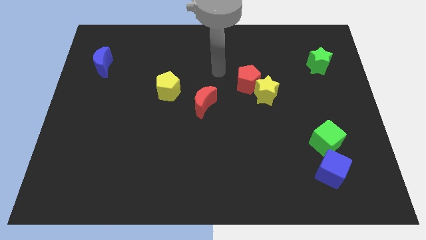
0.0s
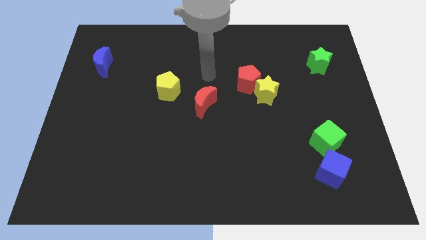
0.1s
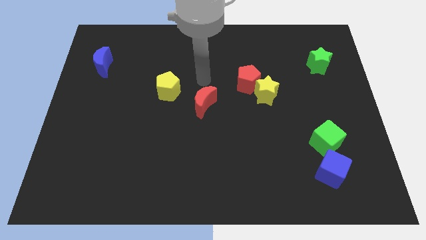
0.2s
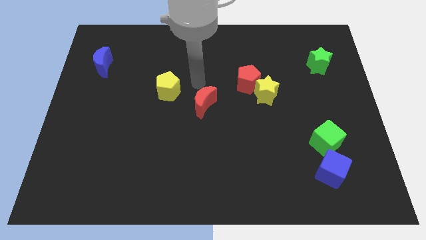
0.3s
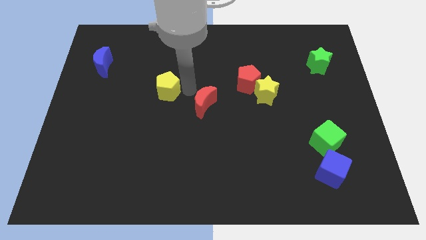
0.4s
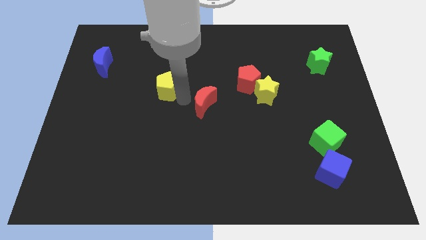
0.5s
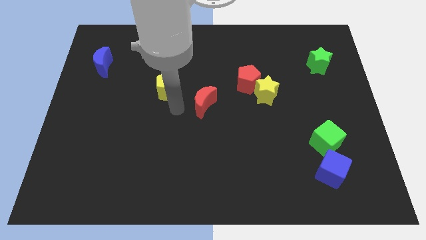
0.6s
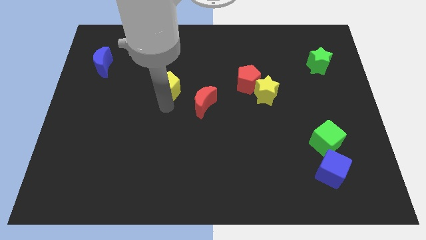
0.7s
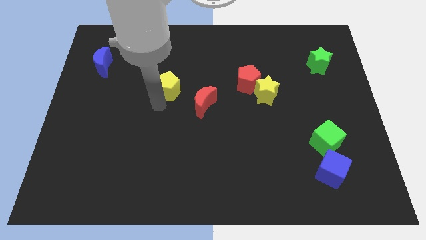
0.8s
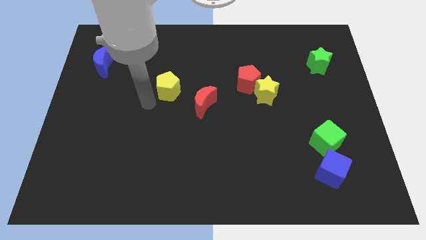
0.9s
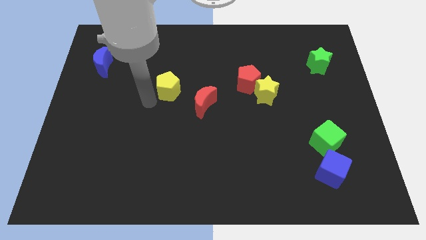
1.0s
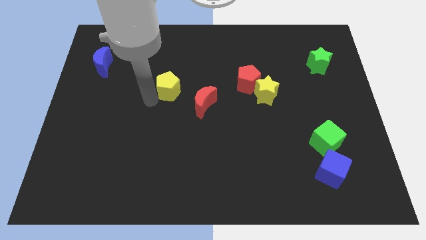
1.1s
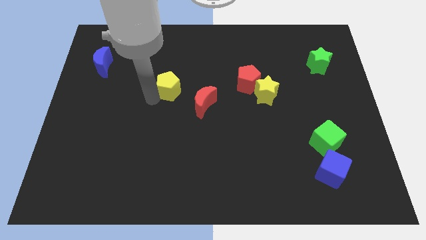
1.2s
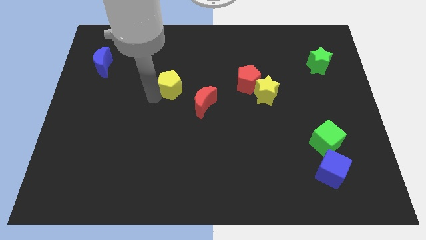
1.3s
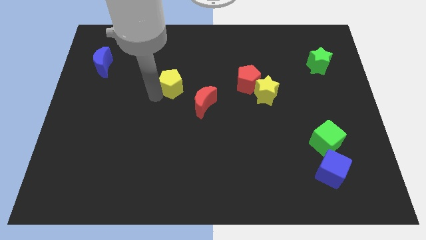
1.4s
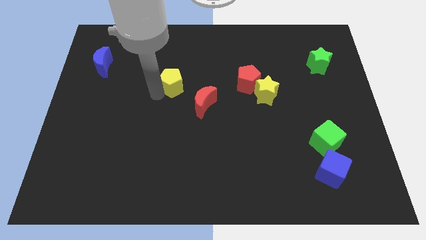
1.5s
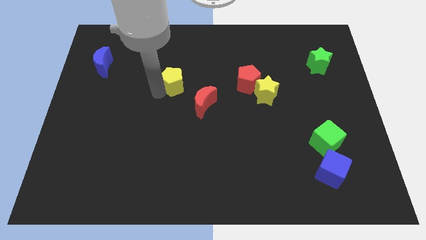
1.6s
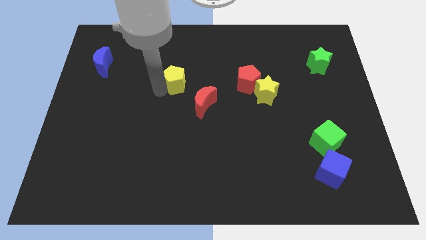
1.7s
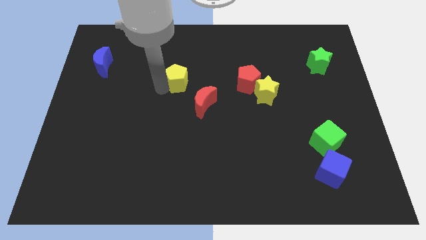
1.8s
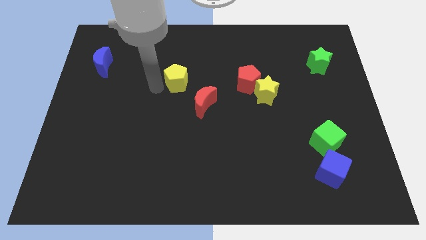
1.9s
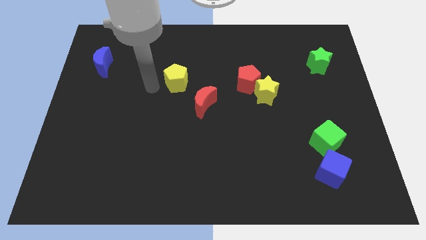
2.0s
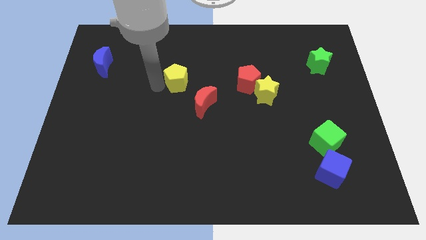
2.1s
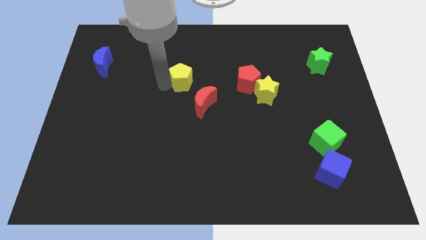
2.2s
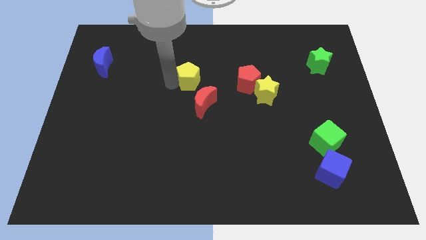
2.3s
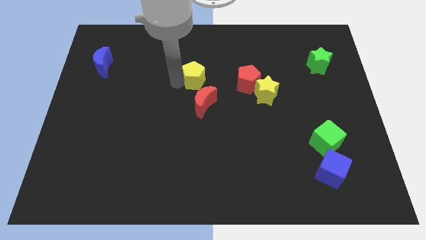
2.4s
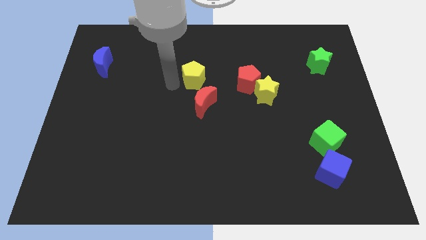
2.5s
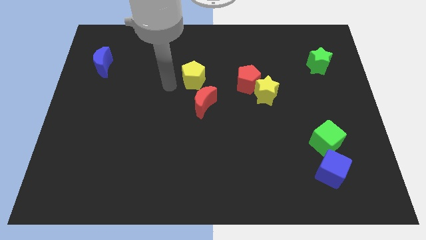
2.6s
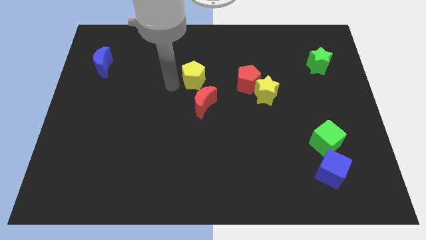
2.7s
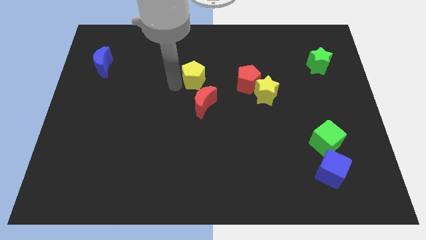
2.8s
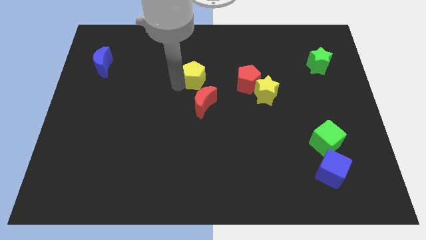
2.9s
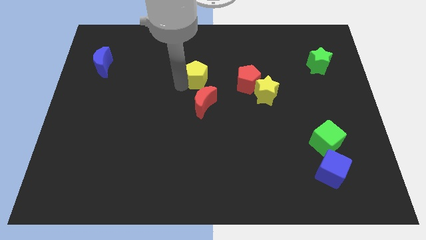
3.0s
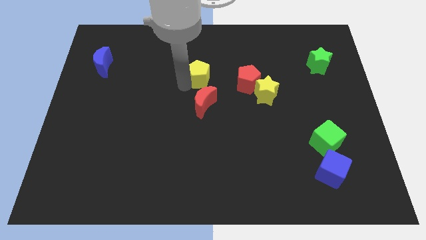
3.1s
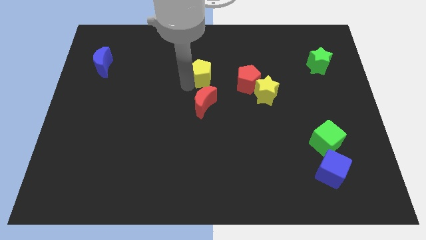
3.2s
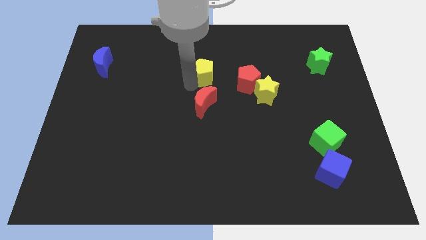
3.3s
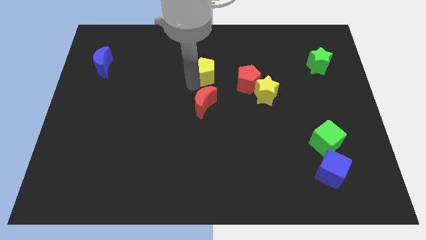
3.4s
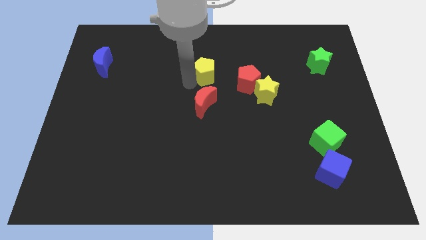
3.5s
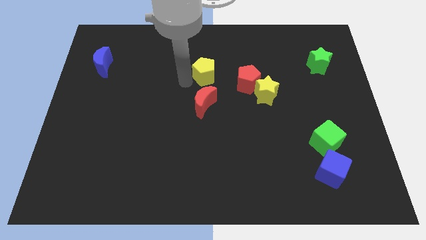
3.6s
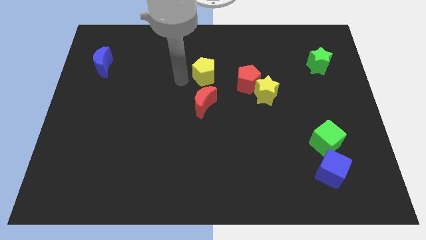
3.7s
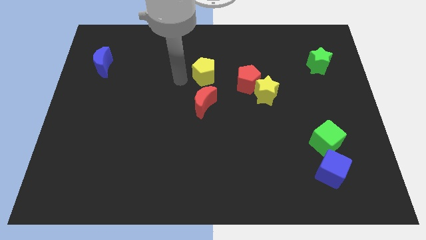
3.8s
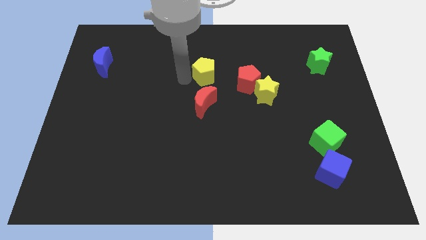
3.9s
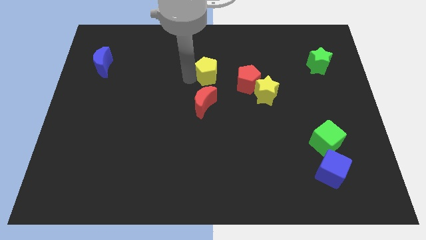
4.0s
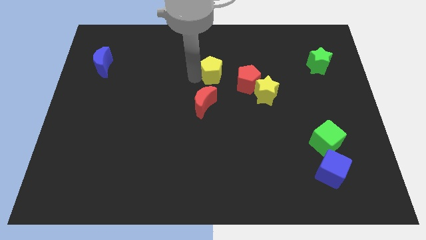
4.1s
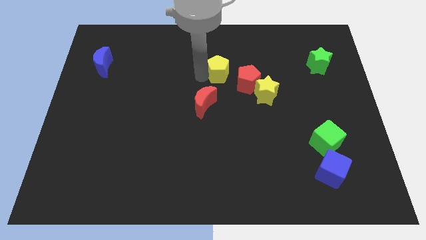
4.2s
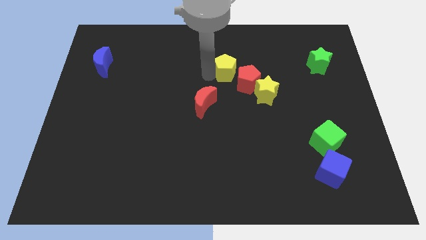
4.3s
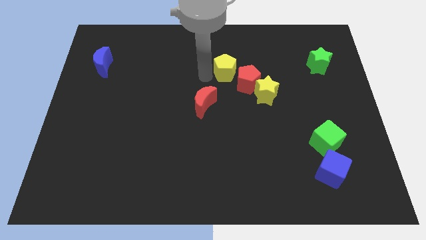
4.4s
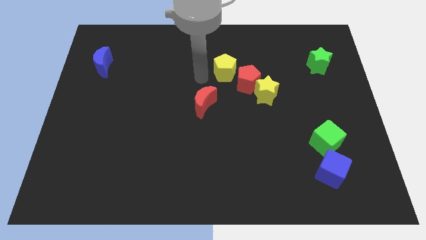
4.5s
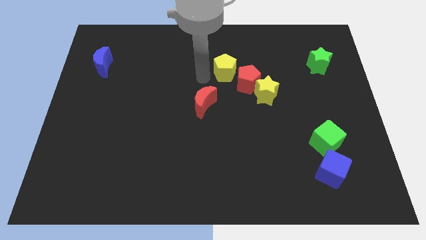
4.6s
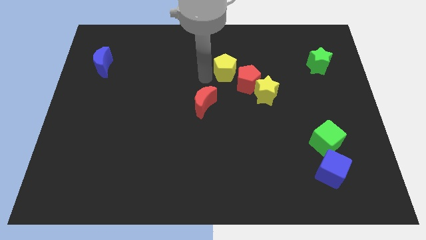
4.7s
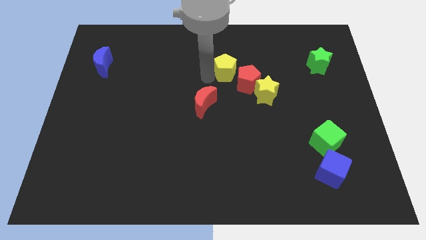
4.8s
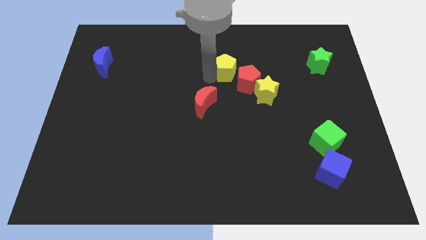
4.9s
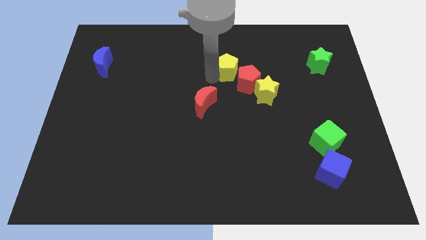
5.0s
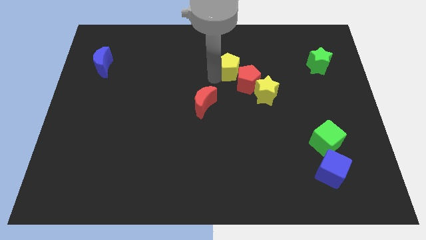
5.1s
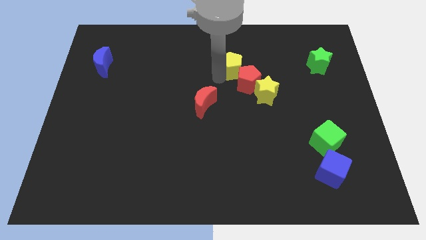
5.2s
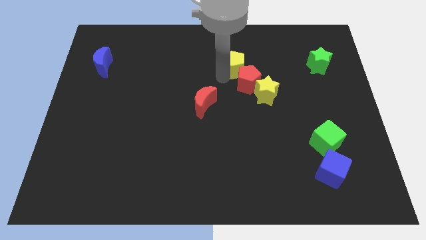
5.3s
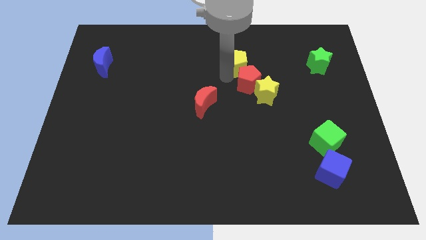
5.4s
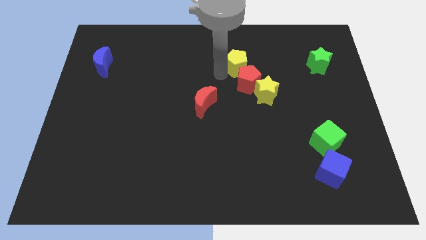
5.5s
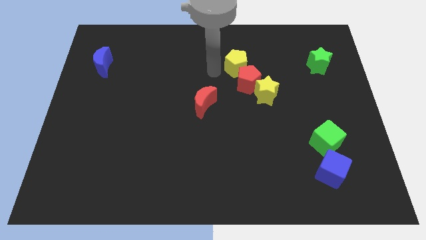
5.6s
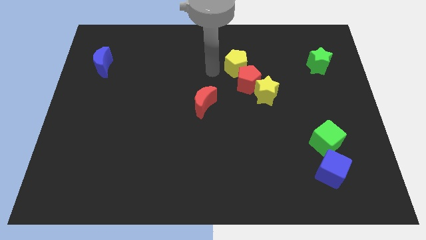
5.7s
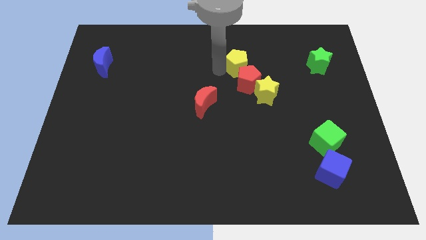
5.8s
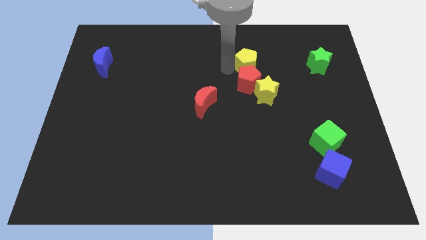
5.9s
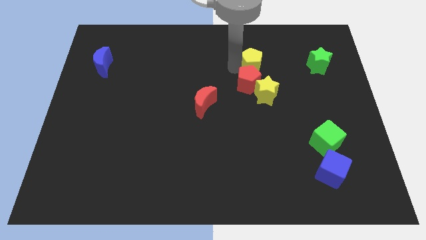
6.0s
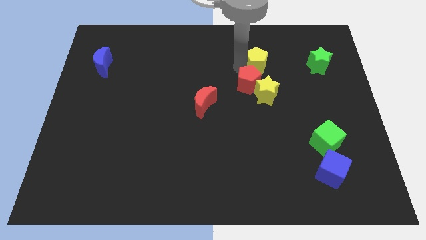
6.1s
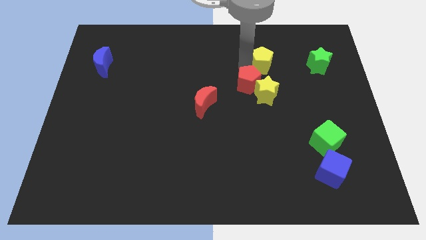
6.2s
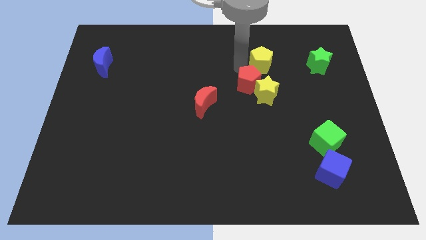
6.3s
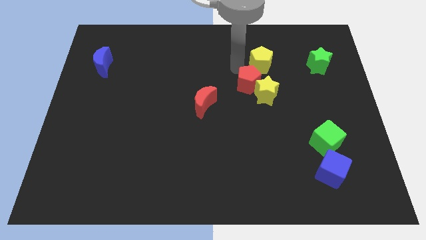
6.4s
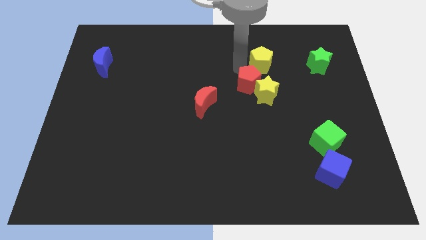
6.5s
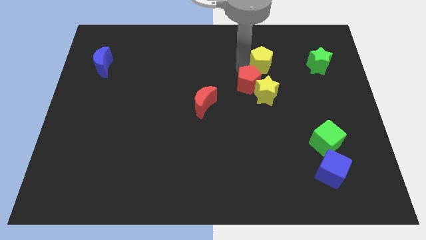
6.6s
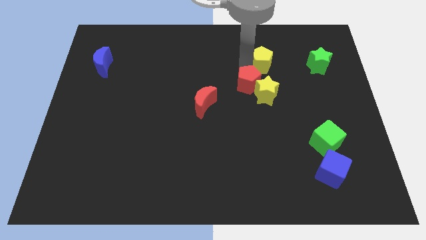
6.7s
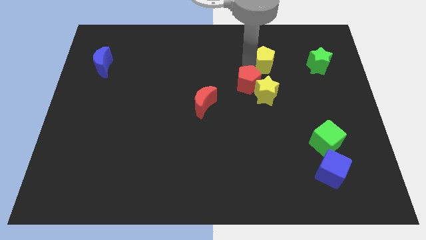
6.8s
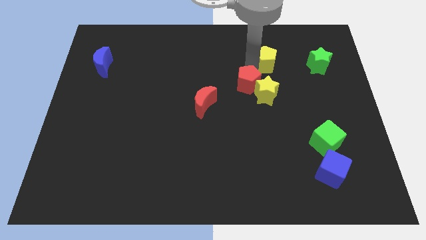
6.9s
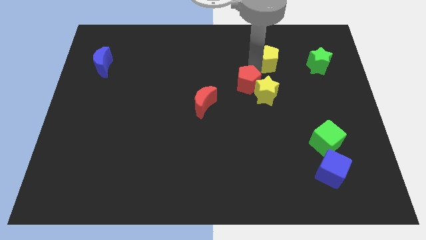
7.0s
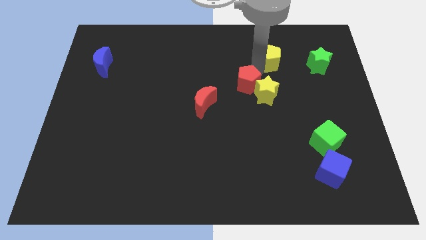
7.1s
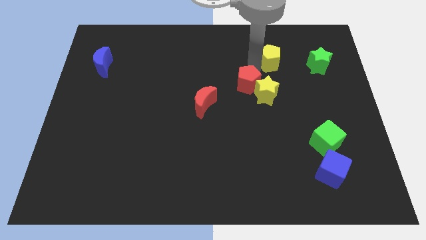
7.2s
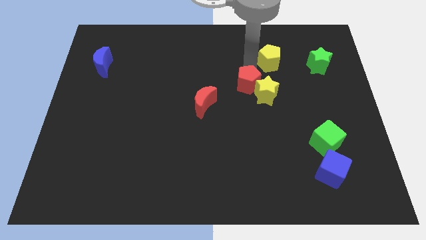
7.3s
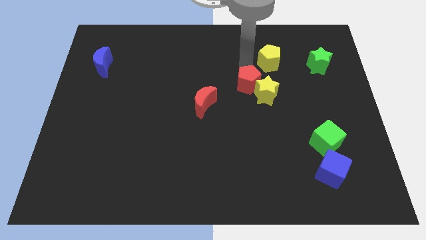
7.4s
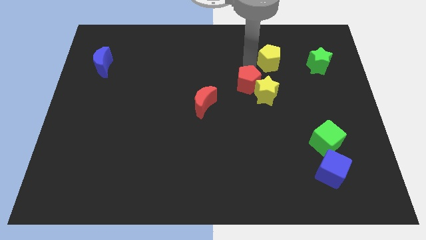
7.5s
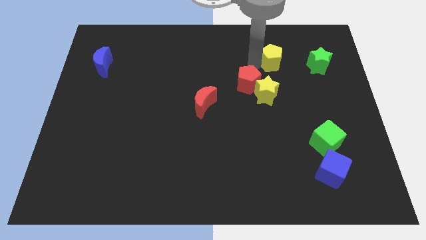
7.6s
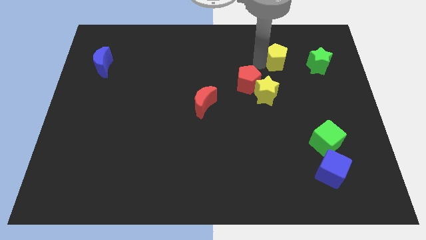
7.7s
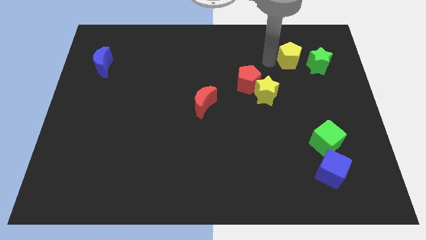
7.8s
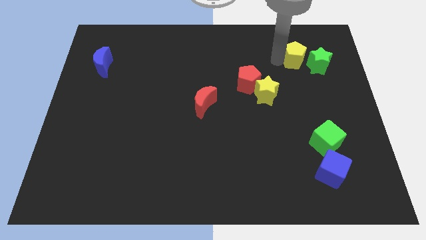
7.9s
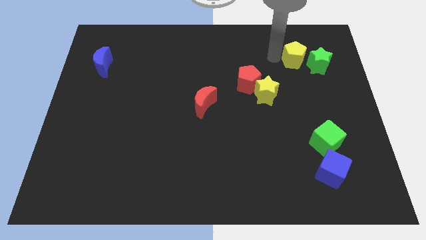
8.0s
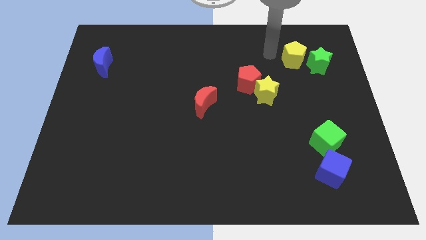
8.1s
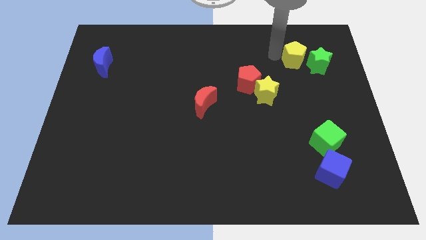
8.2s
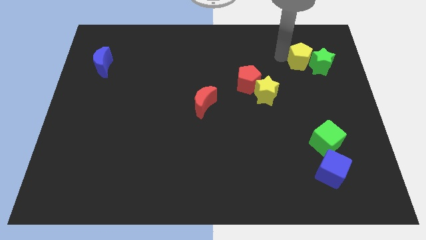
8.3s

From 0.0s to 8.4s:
move the yellow pentagon to the green star
